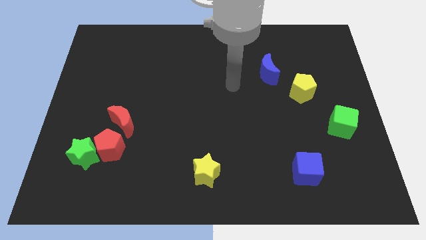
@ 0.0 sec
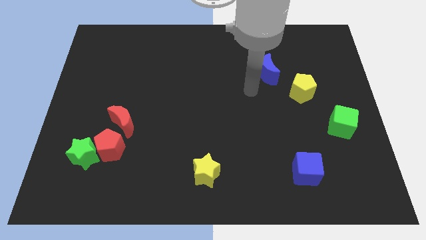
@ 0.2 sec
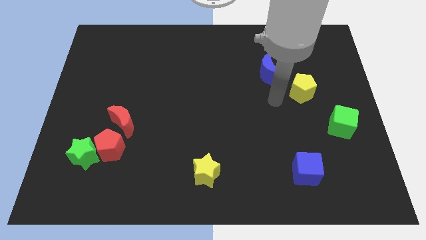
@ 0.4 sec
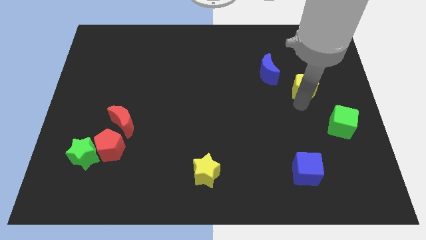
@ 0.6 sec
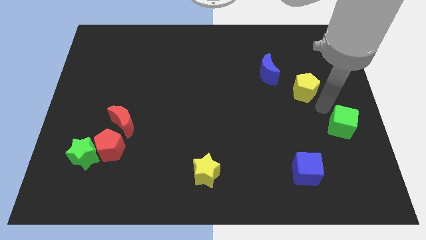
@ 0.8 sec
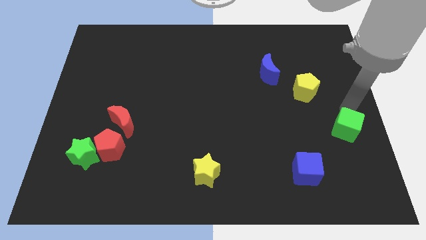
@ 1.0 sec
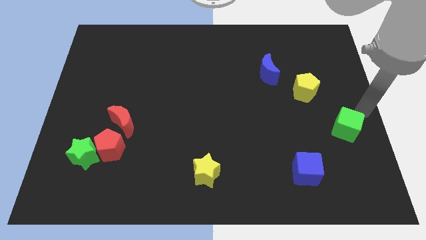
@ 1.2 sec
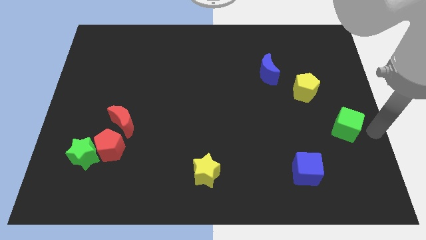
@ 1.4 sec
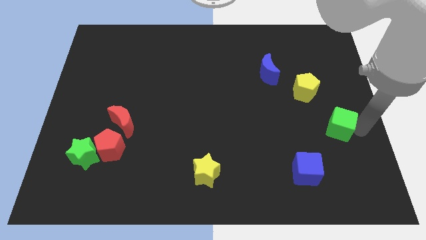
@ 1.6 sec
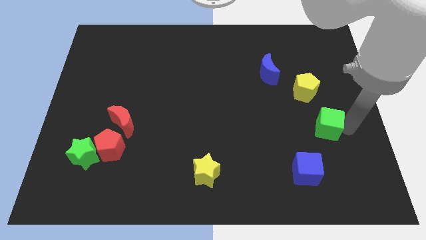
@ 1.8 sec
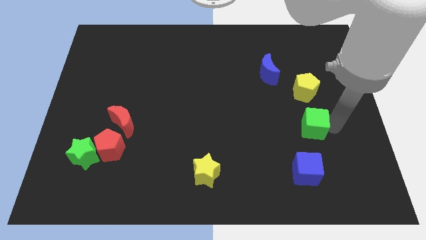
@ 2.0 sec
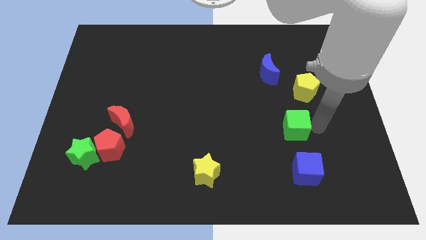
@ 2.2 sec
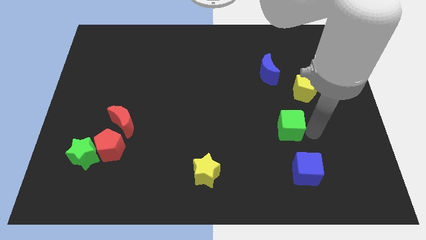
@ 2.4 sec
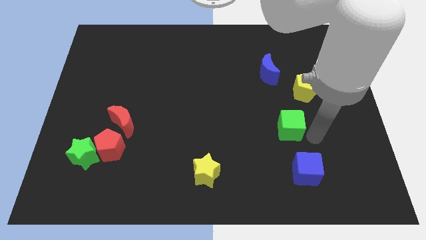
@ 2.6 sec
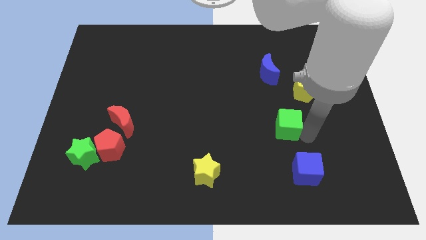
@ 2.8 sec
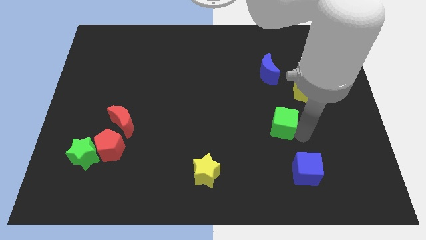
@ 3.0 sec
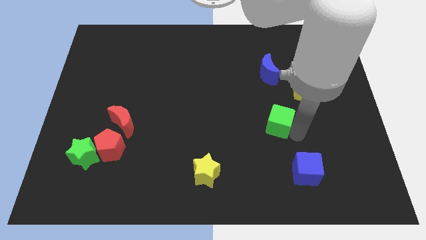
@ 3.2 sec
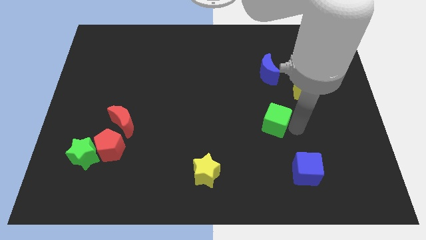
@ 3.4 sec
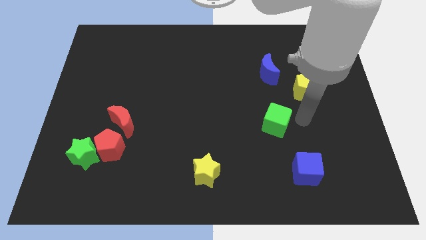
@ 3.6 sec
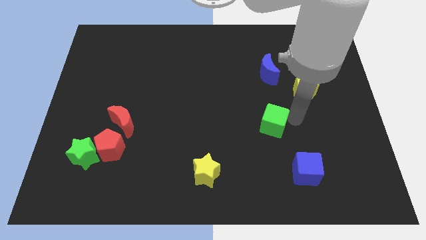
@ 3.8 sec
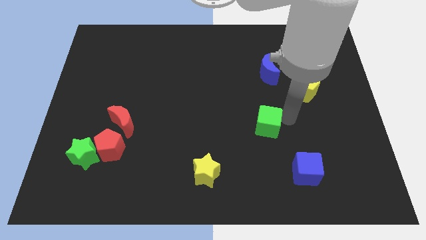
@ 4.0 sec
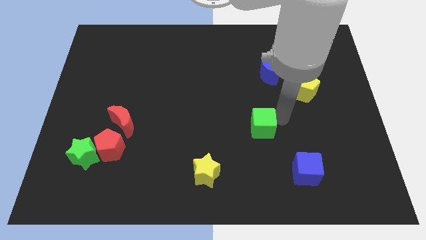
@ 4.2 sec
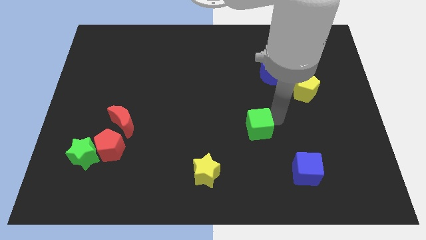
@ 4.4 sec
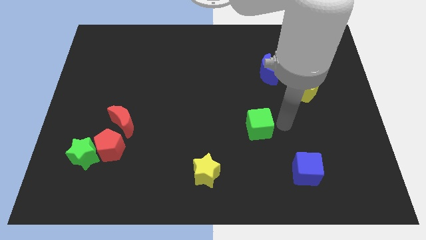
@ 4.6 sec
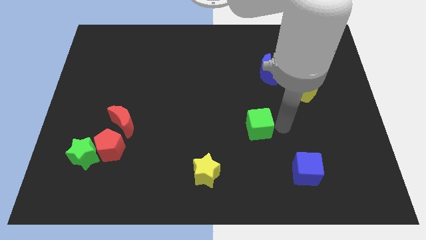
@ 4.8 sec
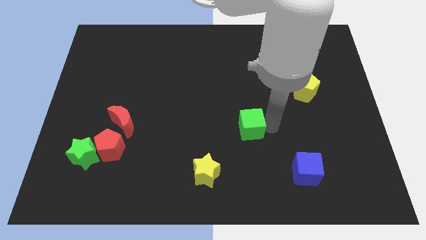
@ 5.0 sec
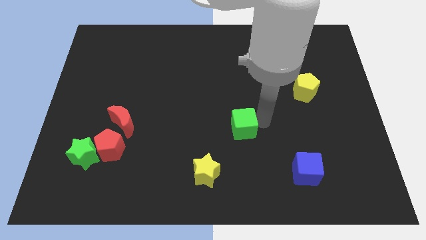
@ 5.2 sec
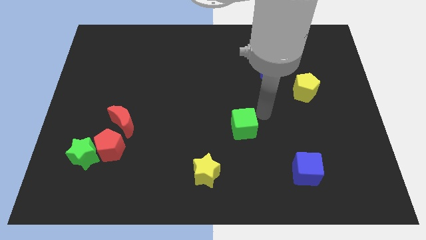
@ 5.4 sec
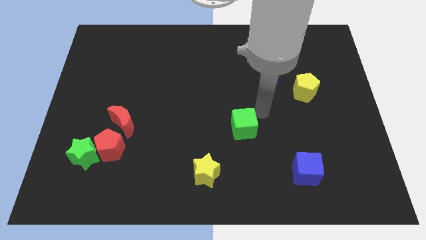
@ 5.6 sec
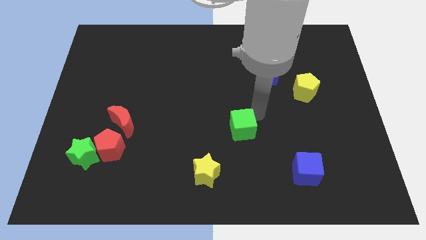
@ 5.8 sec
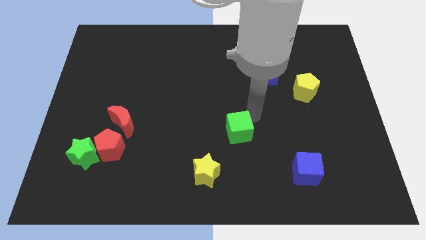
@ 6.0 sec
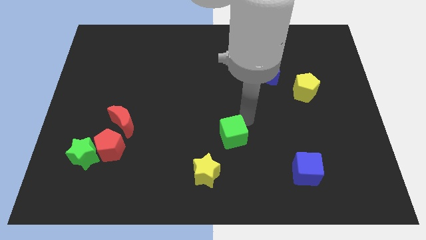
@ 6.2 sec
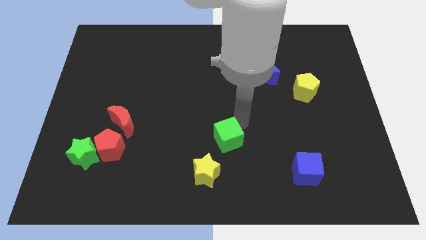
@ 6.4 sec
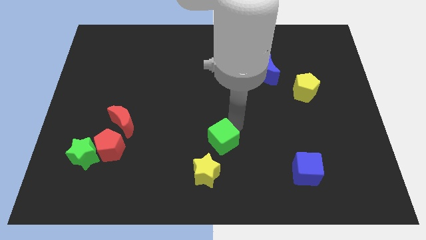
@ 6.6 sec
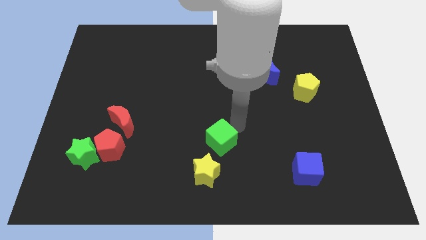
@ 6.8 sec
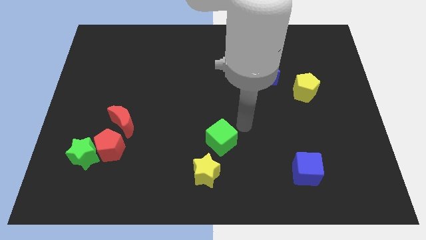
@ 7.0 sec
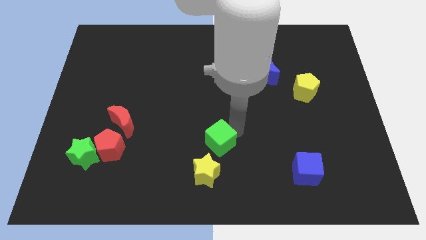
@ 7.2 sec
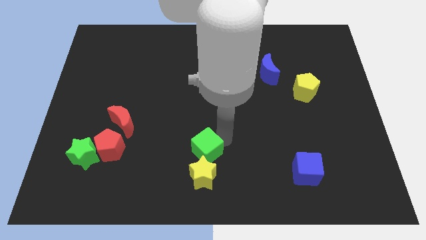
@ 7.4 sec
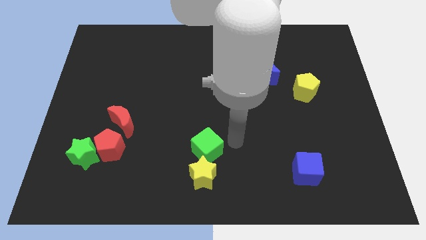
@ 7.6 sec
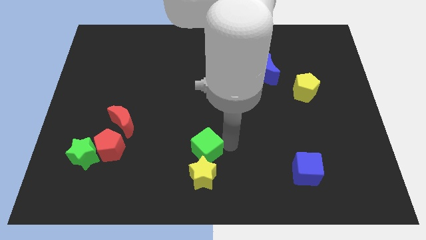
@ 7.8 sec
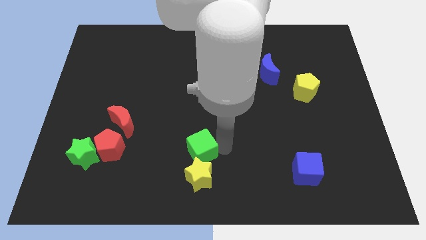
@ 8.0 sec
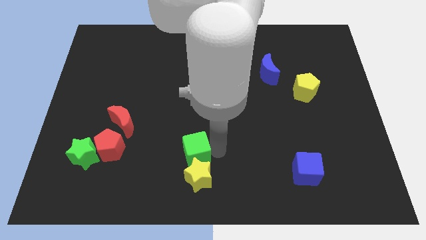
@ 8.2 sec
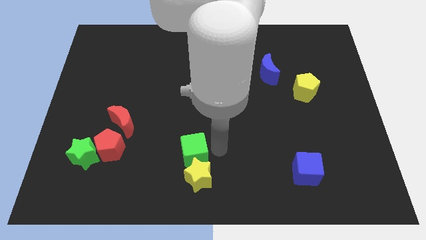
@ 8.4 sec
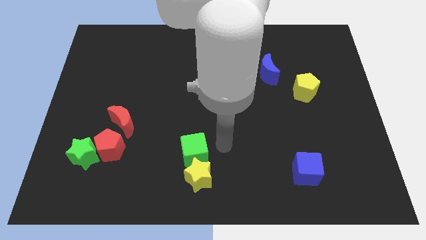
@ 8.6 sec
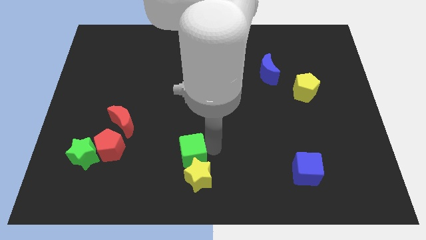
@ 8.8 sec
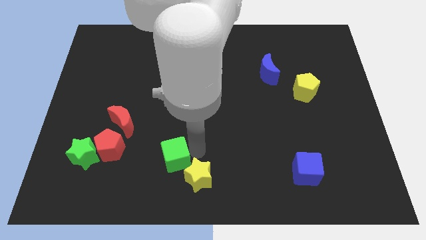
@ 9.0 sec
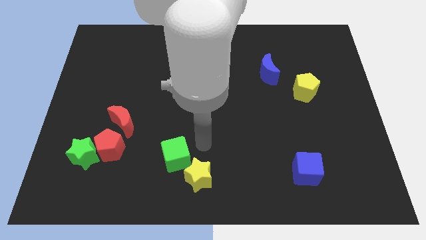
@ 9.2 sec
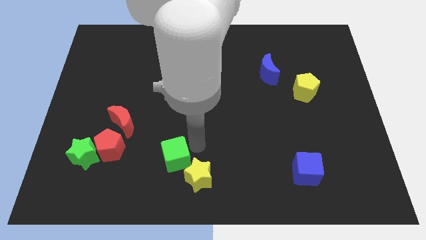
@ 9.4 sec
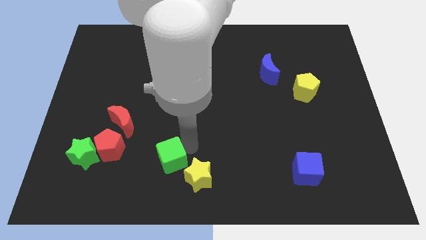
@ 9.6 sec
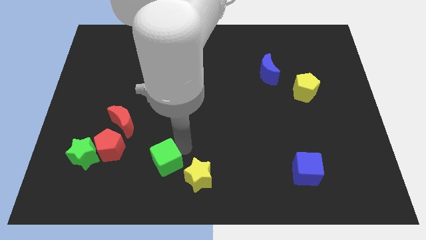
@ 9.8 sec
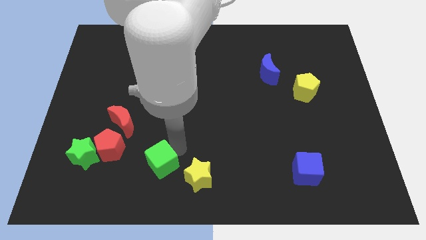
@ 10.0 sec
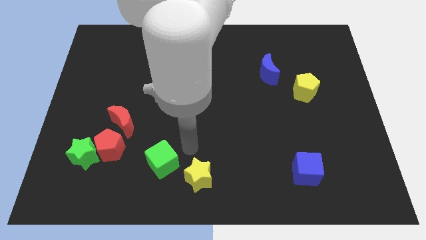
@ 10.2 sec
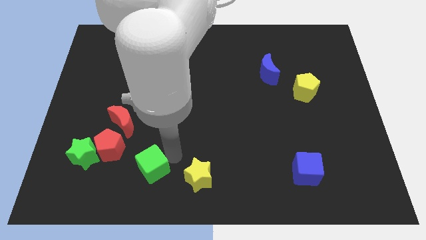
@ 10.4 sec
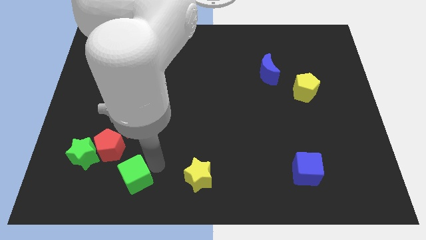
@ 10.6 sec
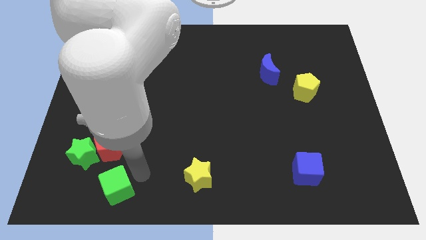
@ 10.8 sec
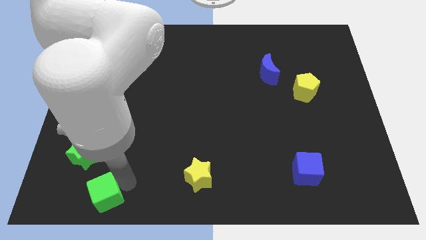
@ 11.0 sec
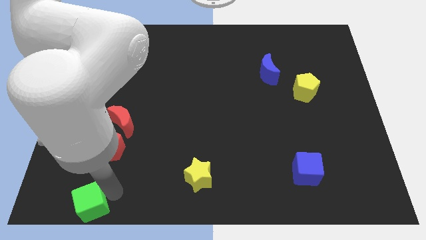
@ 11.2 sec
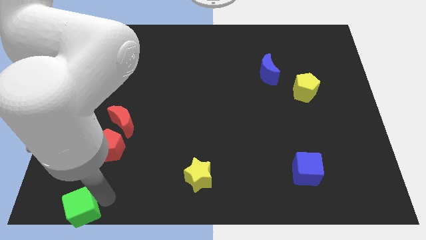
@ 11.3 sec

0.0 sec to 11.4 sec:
push the green cube to the lower left corner
